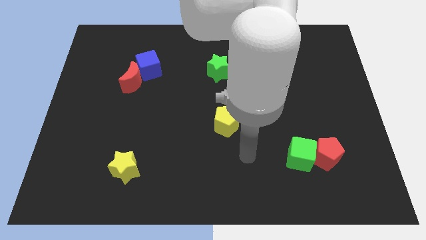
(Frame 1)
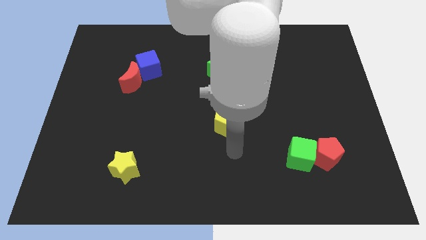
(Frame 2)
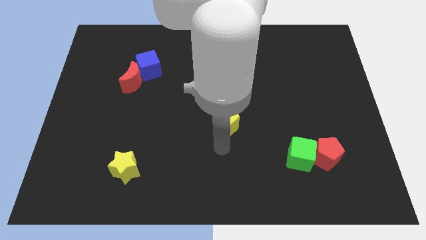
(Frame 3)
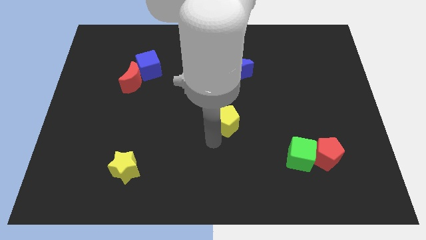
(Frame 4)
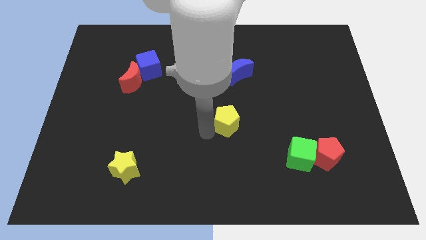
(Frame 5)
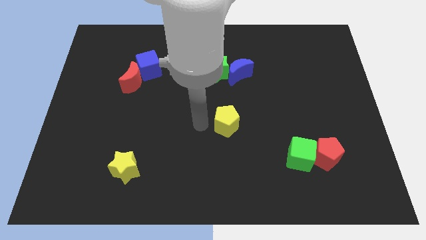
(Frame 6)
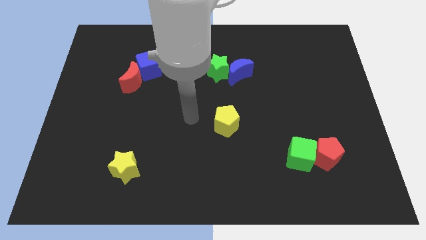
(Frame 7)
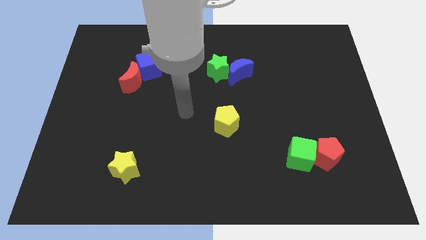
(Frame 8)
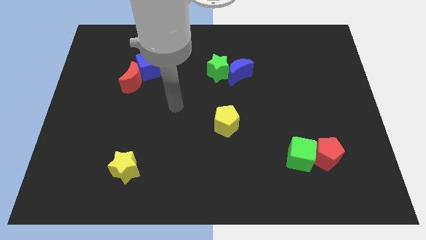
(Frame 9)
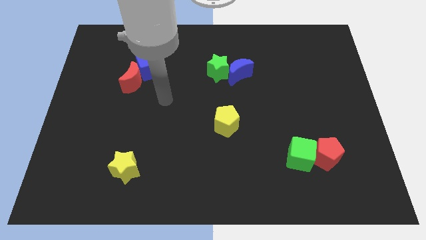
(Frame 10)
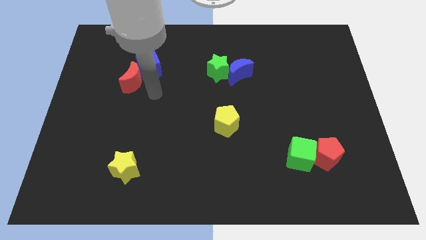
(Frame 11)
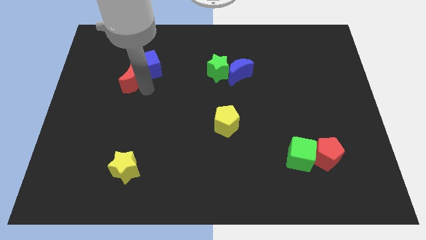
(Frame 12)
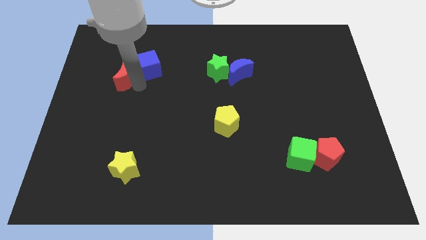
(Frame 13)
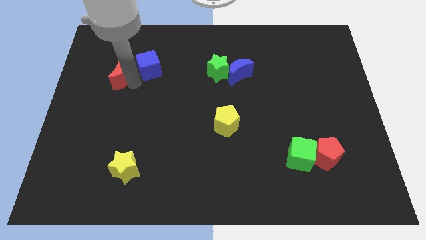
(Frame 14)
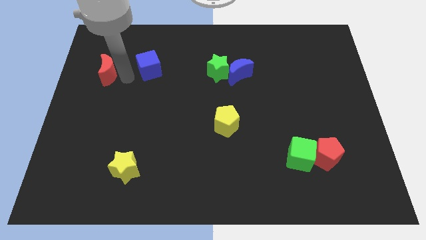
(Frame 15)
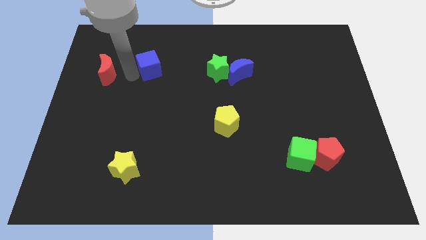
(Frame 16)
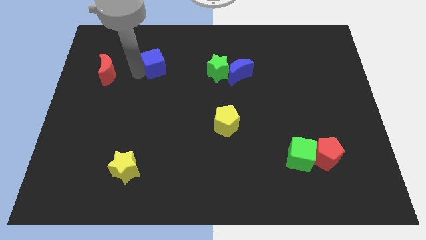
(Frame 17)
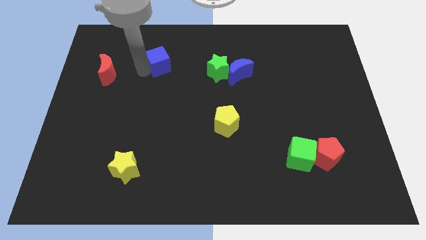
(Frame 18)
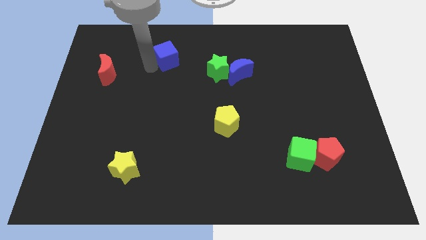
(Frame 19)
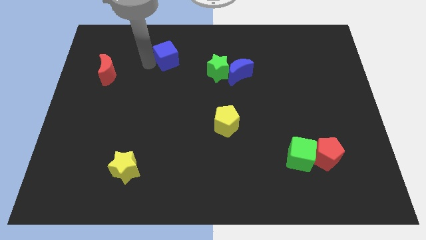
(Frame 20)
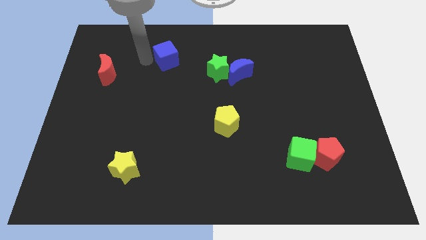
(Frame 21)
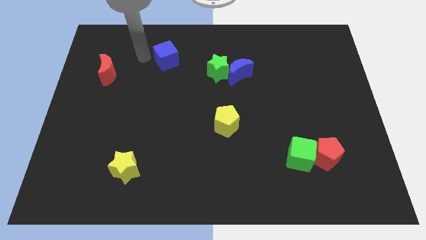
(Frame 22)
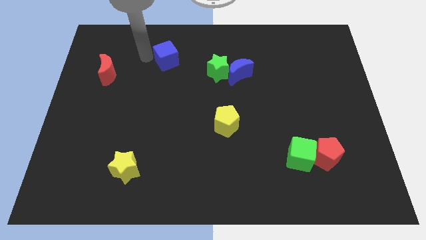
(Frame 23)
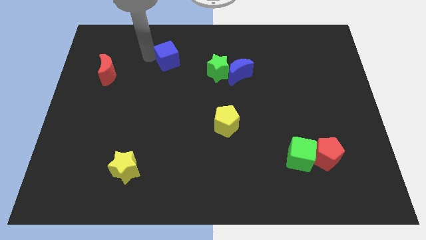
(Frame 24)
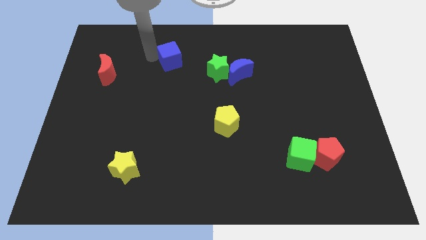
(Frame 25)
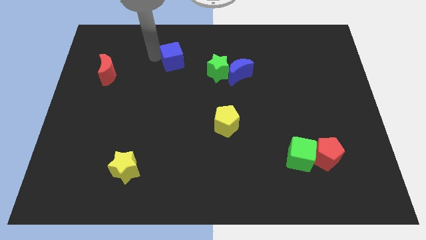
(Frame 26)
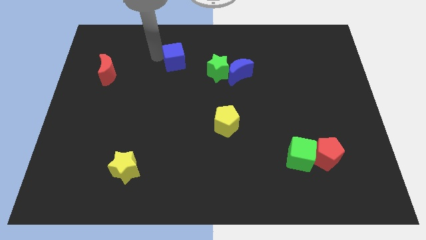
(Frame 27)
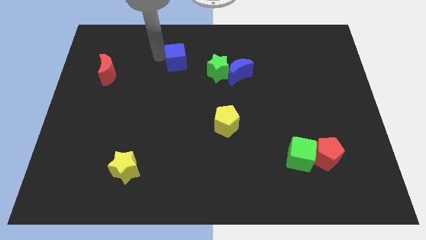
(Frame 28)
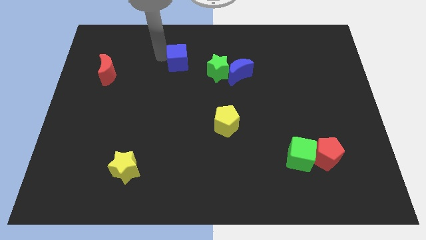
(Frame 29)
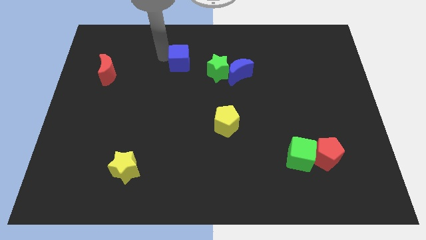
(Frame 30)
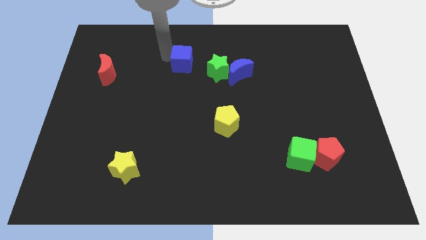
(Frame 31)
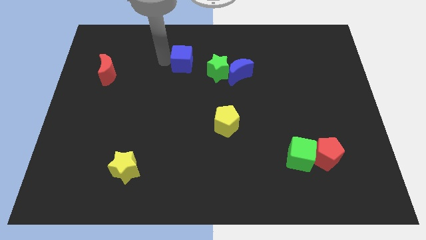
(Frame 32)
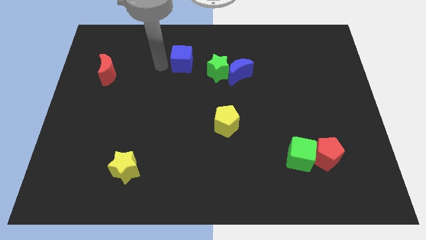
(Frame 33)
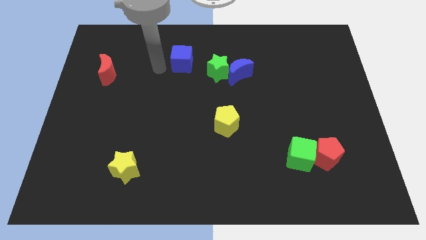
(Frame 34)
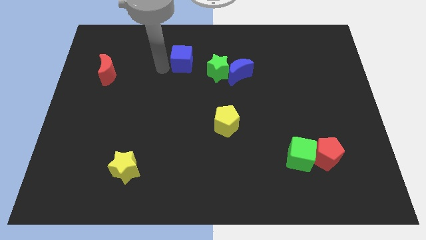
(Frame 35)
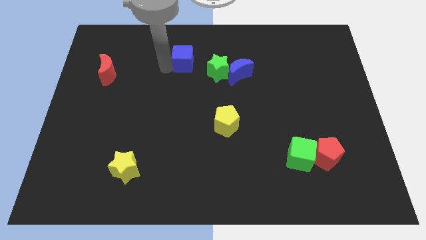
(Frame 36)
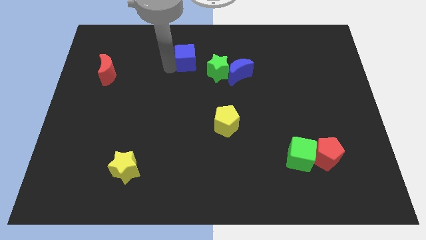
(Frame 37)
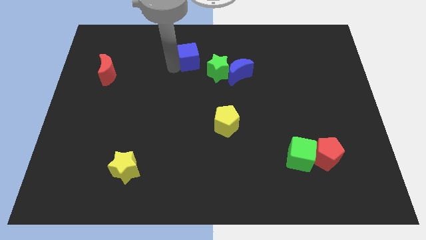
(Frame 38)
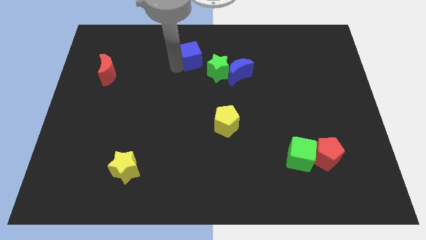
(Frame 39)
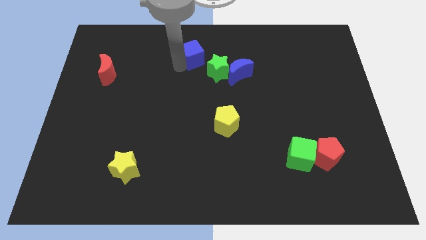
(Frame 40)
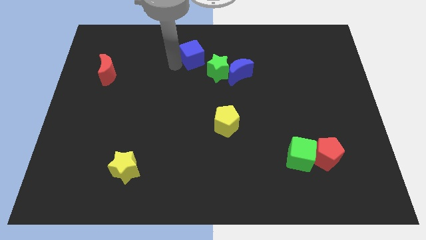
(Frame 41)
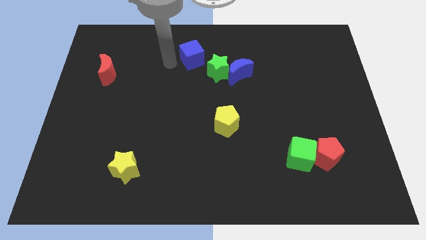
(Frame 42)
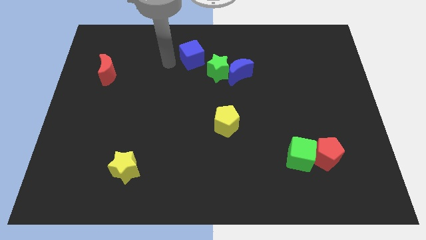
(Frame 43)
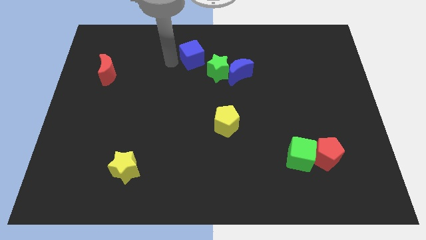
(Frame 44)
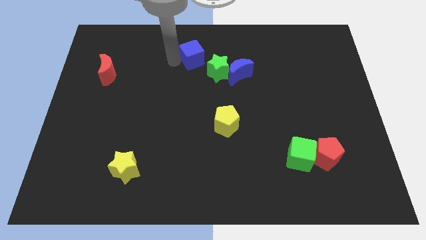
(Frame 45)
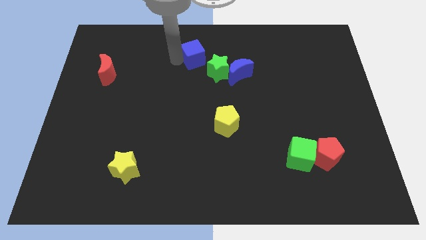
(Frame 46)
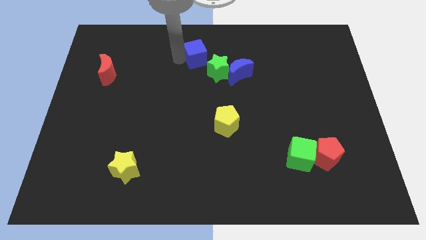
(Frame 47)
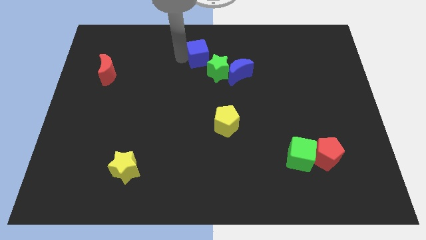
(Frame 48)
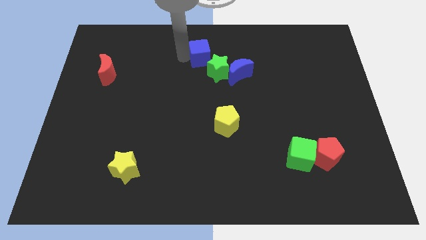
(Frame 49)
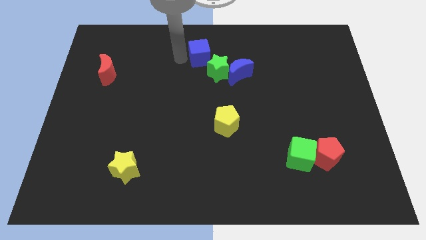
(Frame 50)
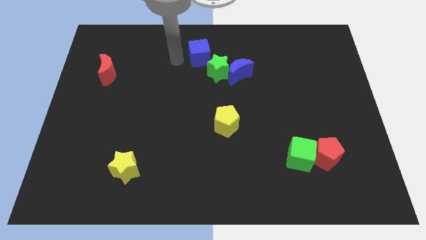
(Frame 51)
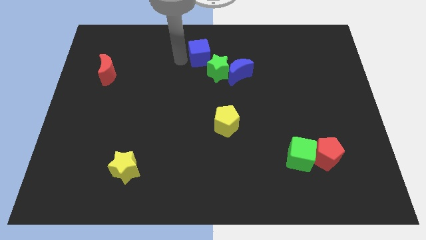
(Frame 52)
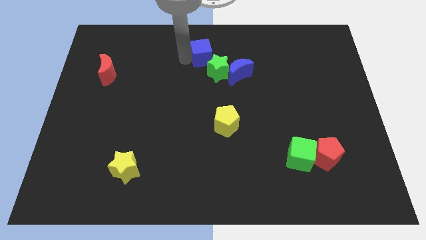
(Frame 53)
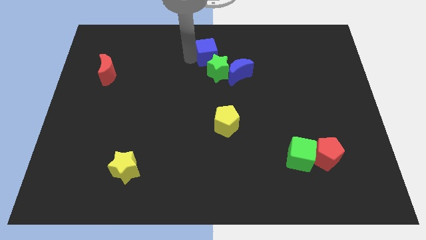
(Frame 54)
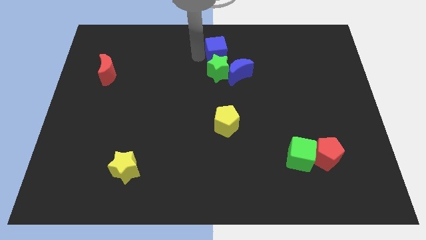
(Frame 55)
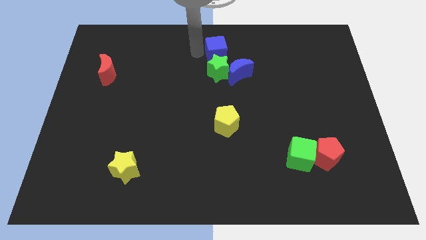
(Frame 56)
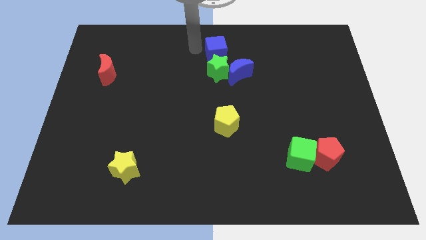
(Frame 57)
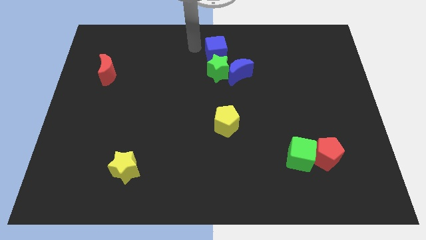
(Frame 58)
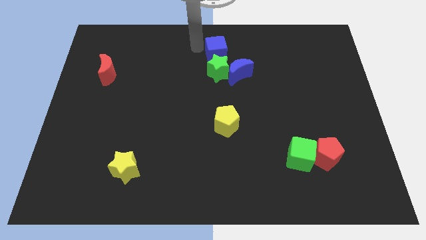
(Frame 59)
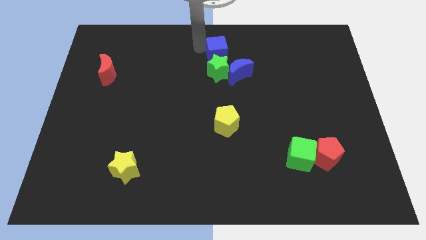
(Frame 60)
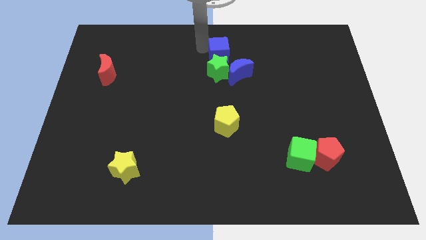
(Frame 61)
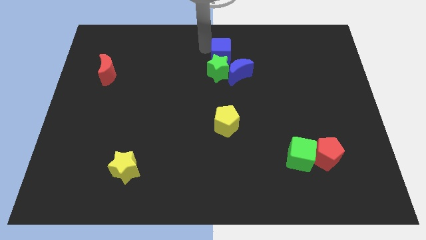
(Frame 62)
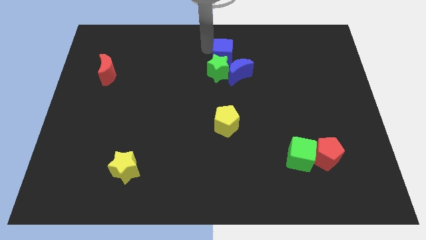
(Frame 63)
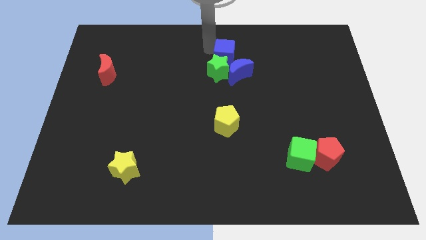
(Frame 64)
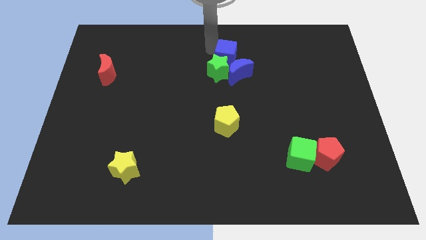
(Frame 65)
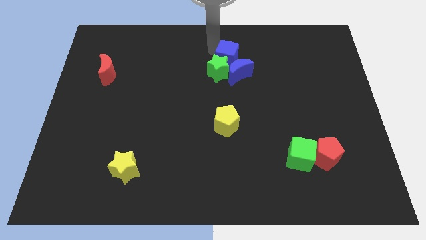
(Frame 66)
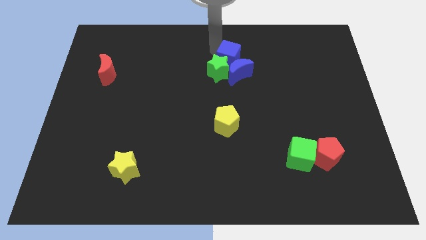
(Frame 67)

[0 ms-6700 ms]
move the blue cube to the right

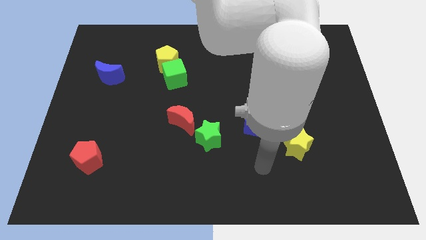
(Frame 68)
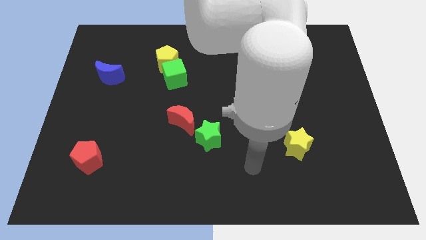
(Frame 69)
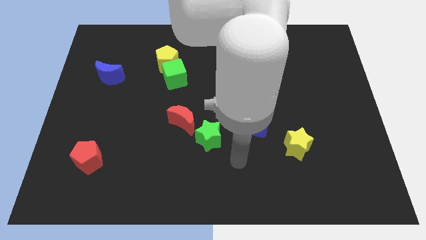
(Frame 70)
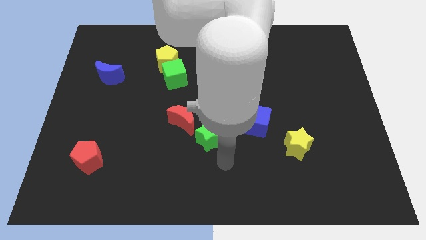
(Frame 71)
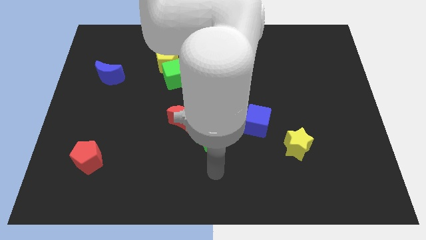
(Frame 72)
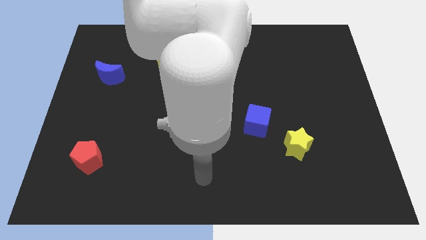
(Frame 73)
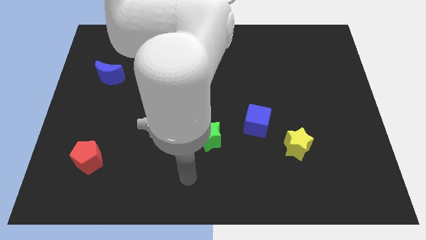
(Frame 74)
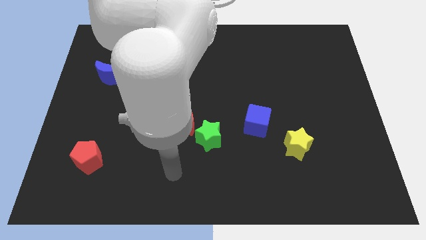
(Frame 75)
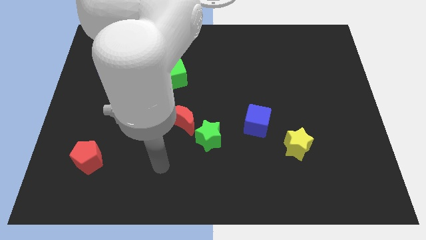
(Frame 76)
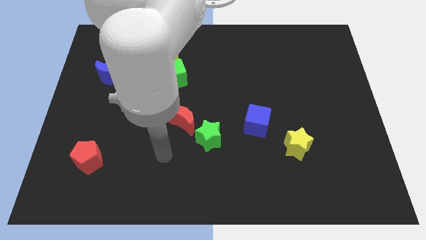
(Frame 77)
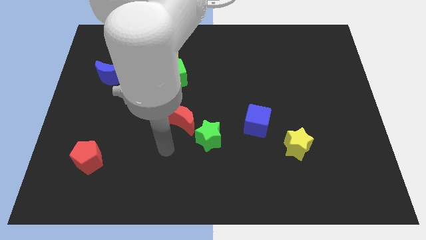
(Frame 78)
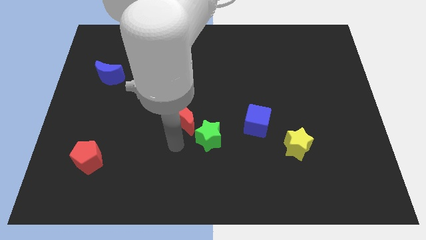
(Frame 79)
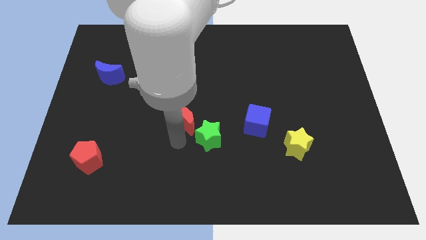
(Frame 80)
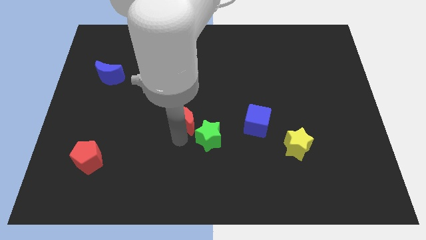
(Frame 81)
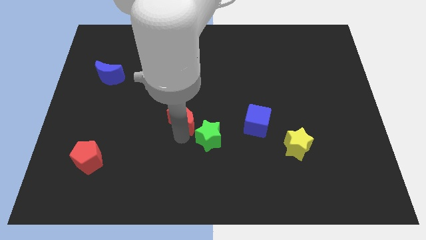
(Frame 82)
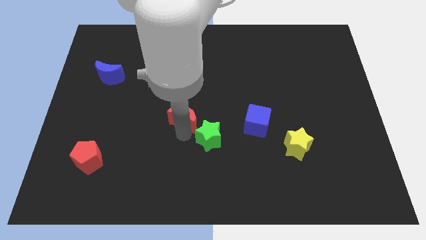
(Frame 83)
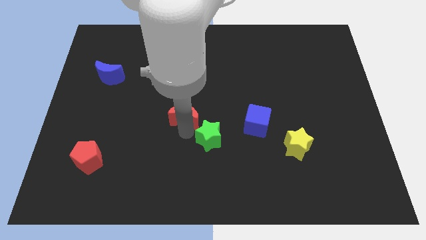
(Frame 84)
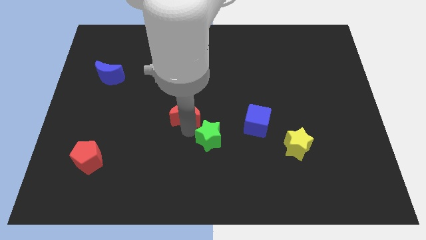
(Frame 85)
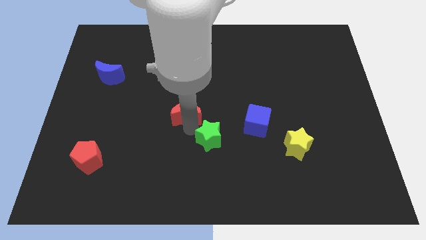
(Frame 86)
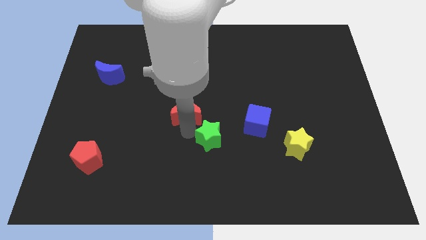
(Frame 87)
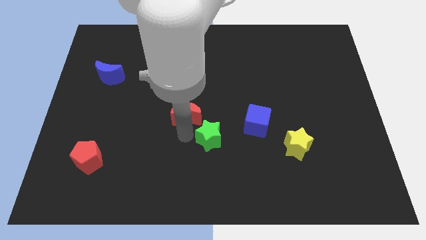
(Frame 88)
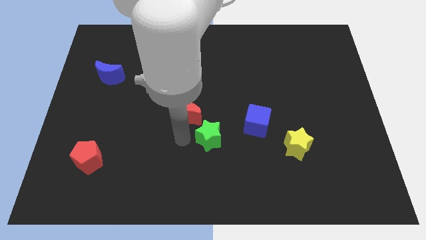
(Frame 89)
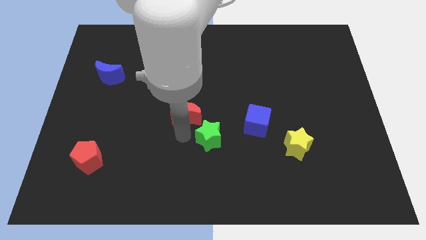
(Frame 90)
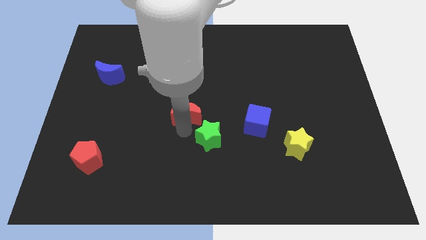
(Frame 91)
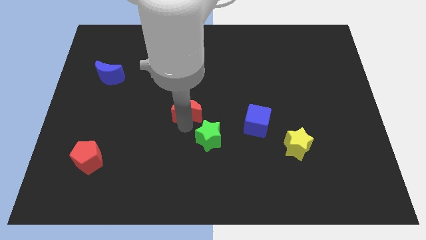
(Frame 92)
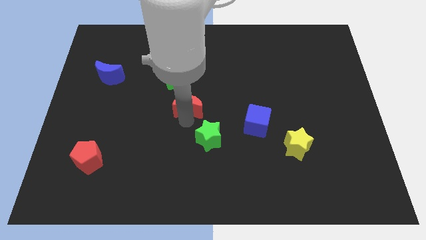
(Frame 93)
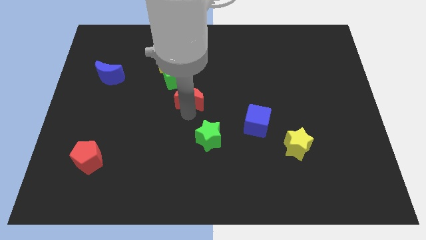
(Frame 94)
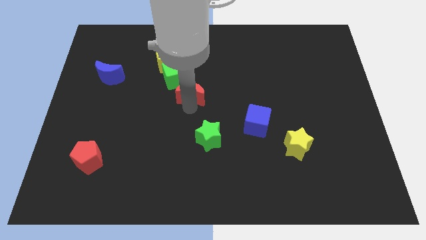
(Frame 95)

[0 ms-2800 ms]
slide the red moon somewhat upwards
